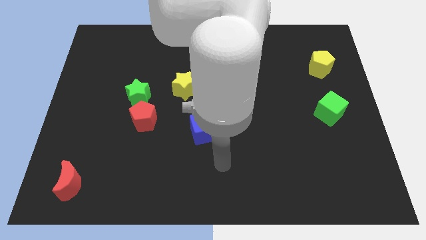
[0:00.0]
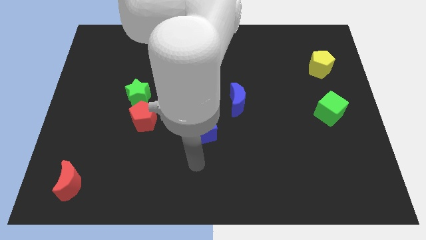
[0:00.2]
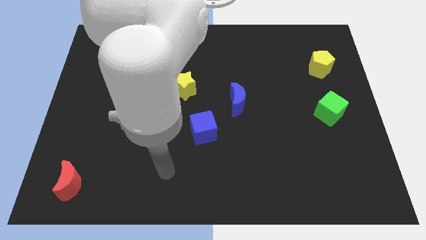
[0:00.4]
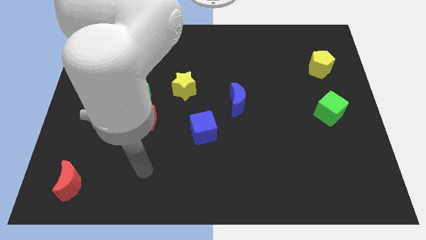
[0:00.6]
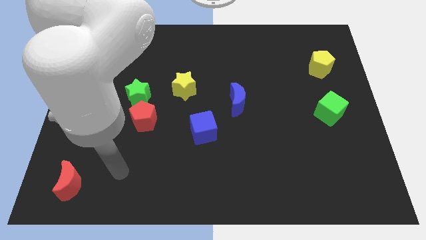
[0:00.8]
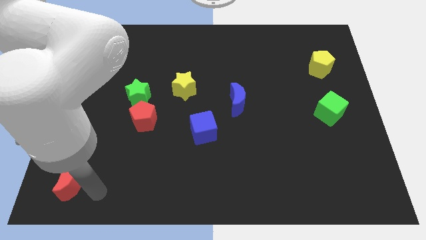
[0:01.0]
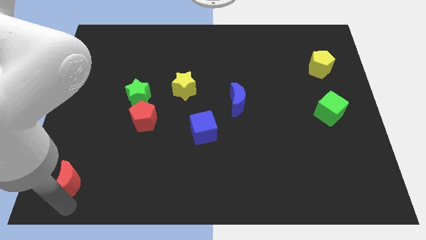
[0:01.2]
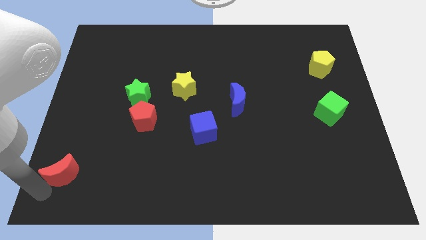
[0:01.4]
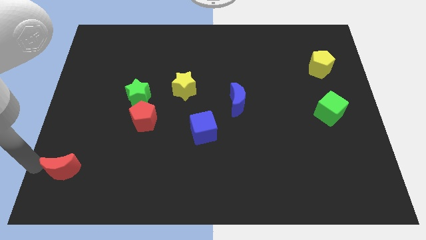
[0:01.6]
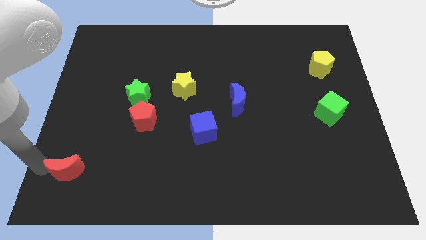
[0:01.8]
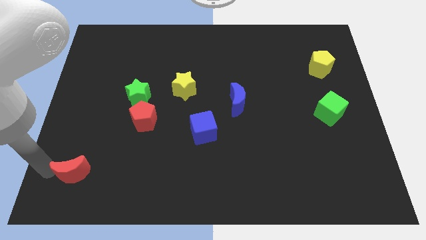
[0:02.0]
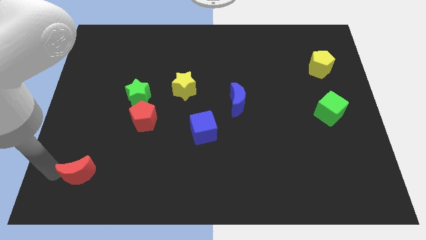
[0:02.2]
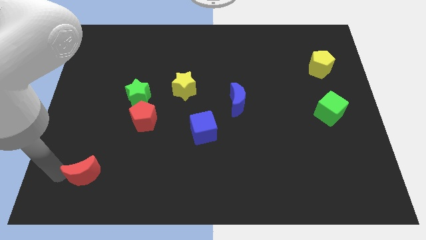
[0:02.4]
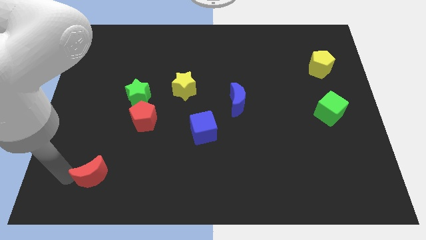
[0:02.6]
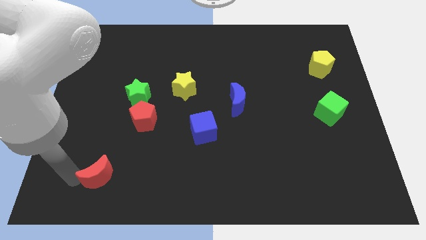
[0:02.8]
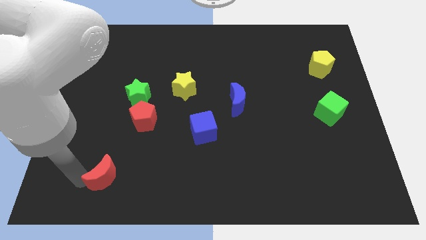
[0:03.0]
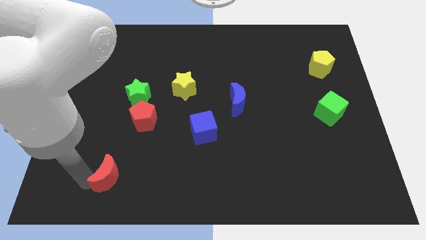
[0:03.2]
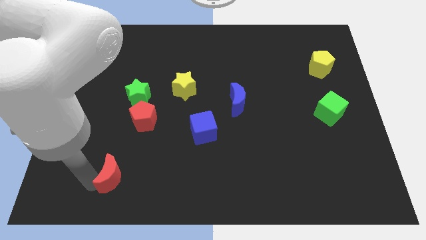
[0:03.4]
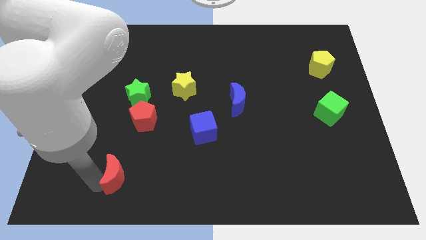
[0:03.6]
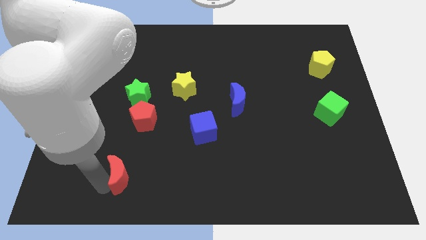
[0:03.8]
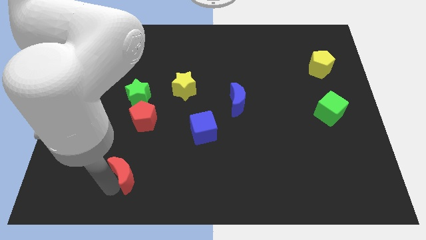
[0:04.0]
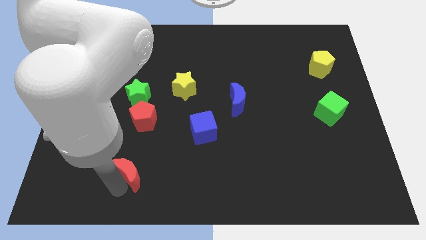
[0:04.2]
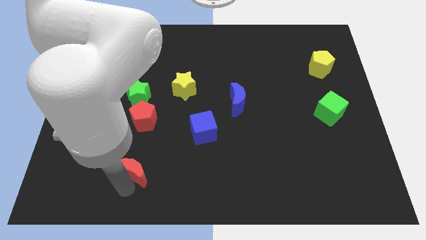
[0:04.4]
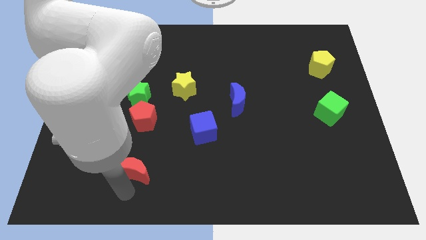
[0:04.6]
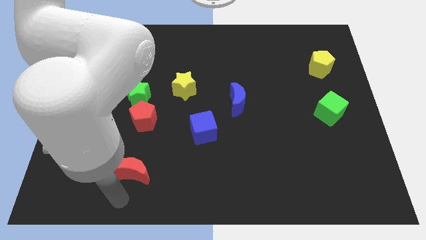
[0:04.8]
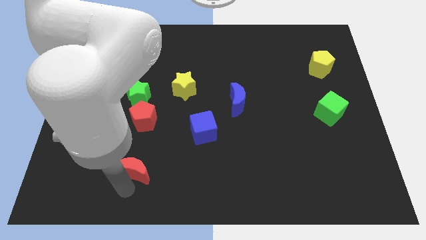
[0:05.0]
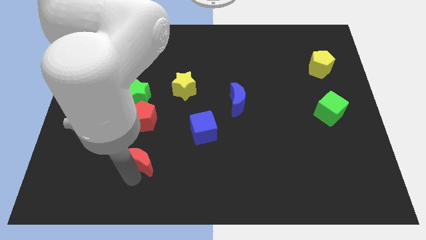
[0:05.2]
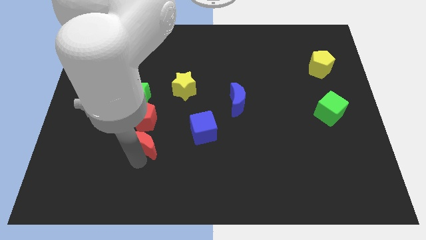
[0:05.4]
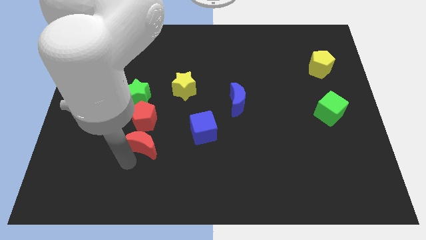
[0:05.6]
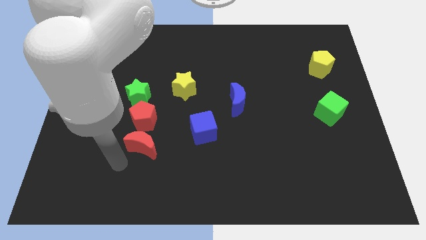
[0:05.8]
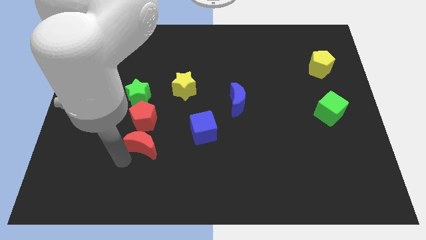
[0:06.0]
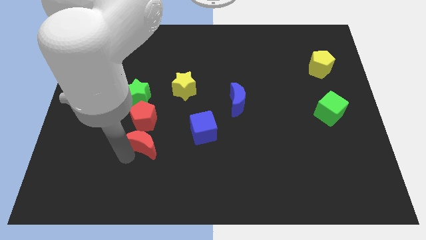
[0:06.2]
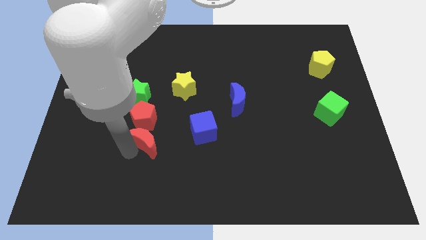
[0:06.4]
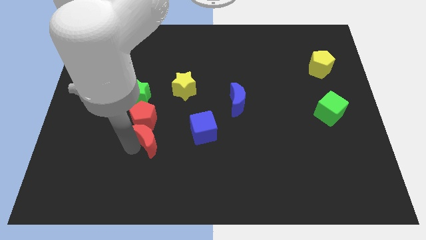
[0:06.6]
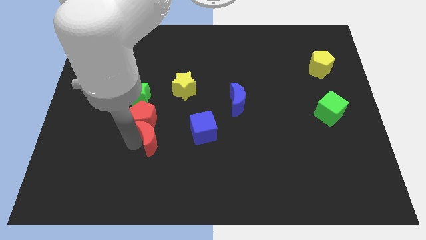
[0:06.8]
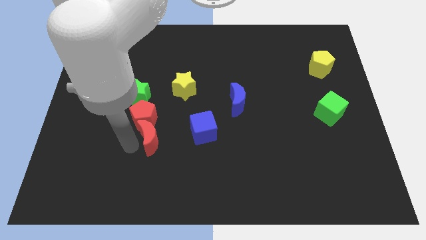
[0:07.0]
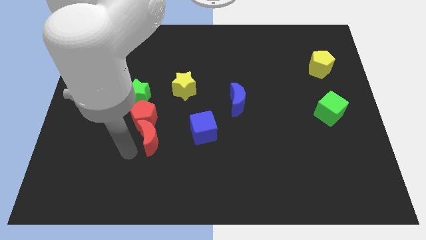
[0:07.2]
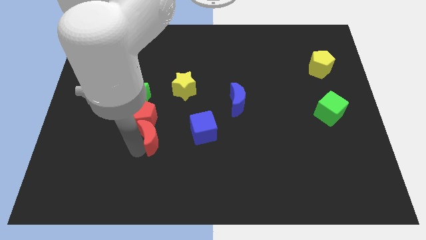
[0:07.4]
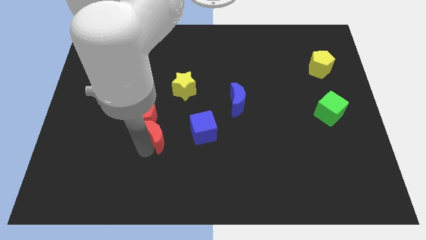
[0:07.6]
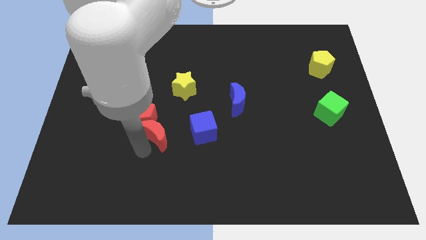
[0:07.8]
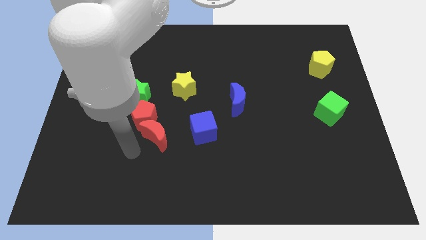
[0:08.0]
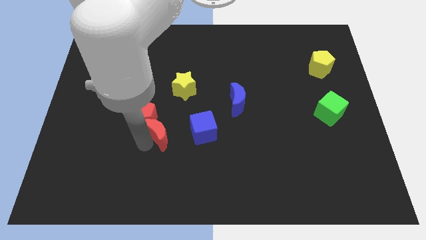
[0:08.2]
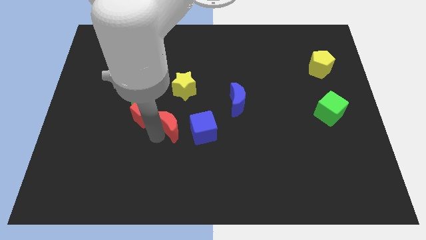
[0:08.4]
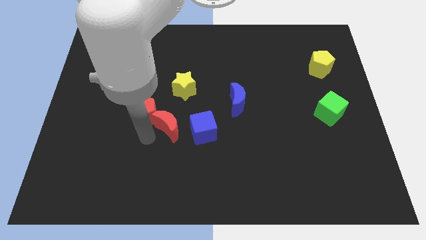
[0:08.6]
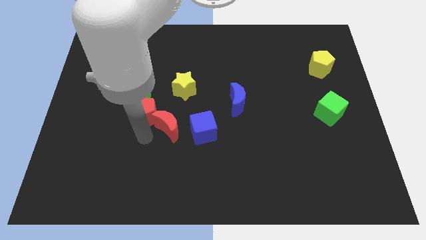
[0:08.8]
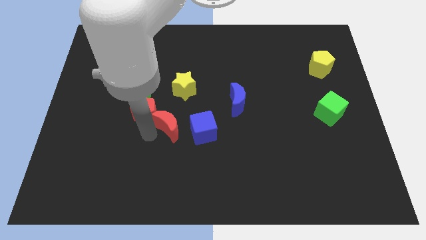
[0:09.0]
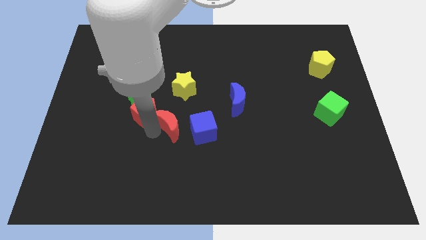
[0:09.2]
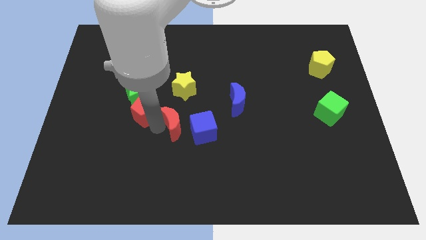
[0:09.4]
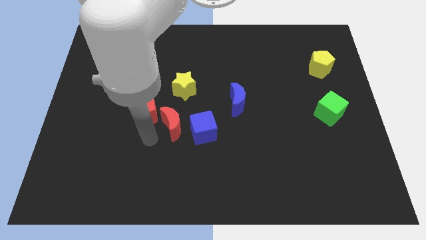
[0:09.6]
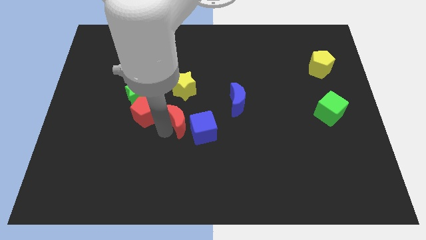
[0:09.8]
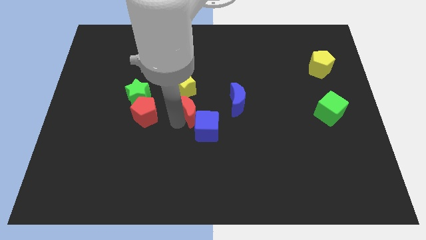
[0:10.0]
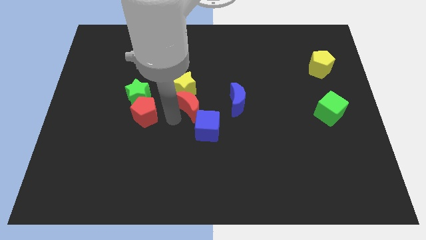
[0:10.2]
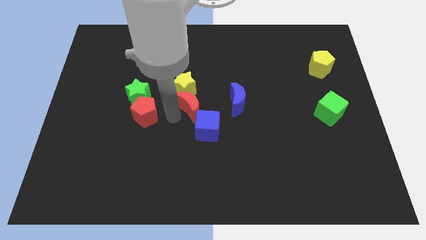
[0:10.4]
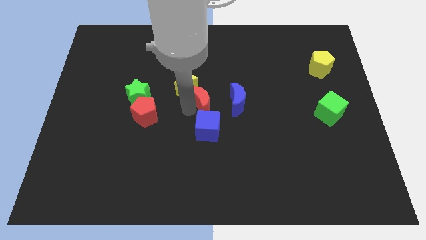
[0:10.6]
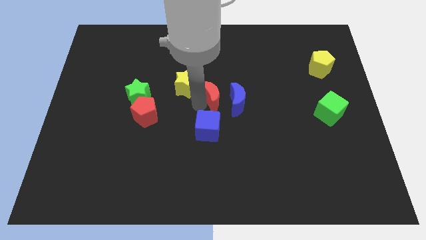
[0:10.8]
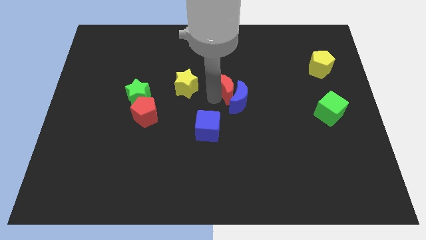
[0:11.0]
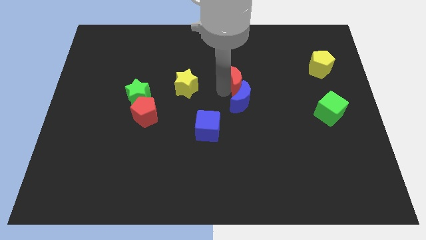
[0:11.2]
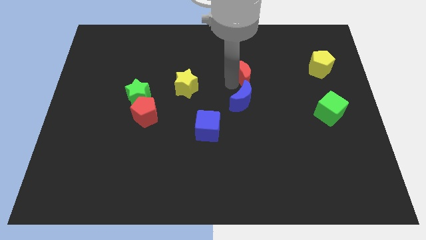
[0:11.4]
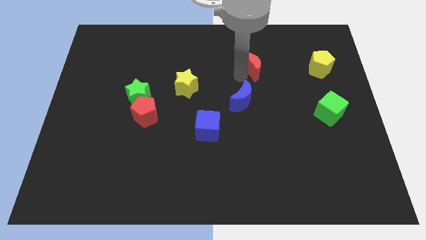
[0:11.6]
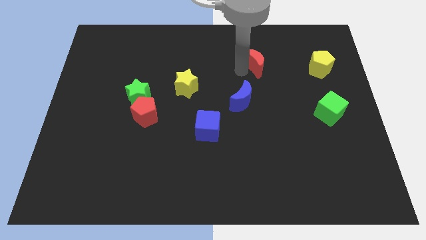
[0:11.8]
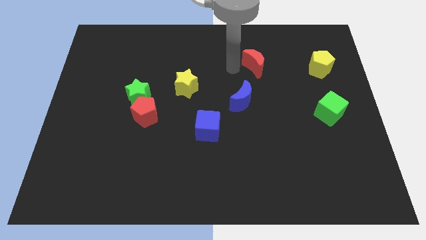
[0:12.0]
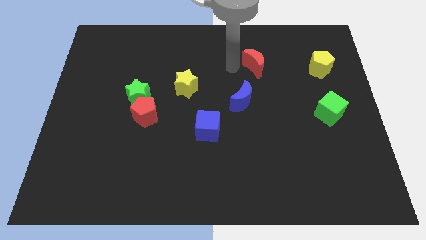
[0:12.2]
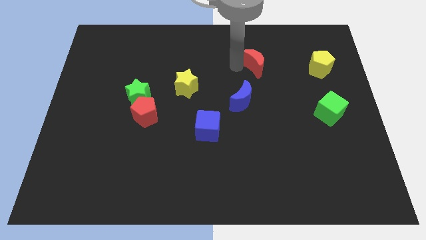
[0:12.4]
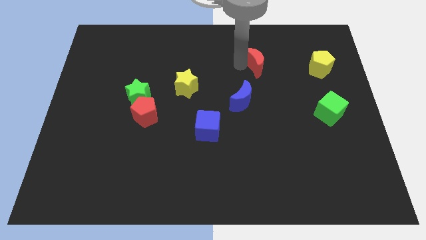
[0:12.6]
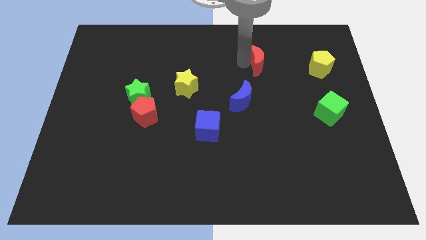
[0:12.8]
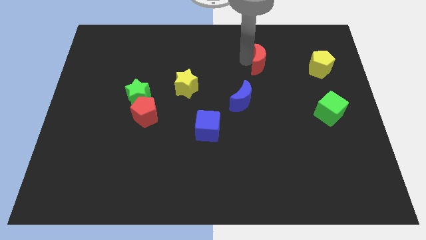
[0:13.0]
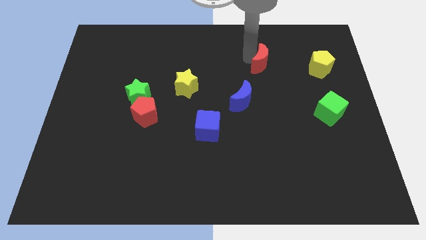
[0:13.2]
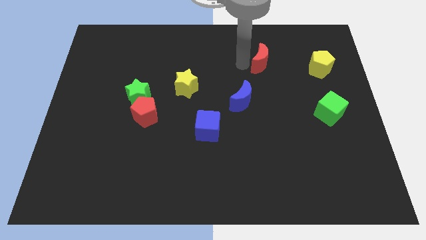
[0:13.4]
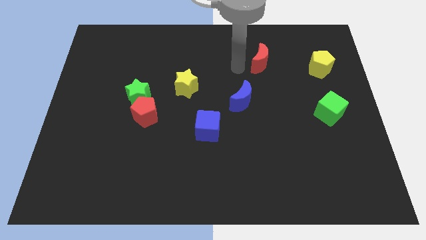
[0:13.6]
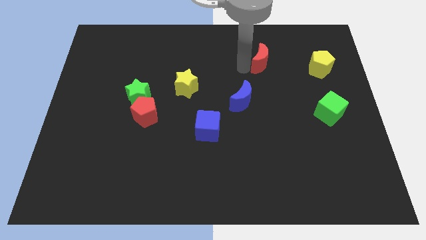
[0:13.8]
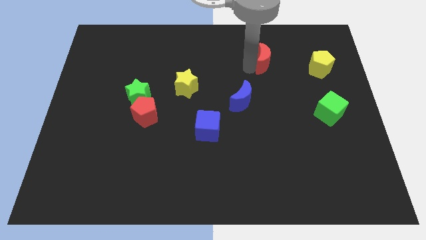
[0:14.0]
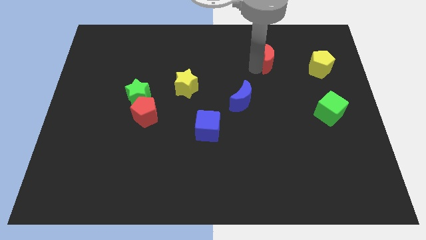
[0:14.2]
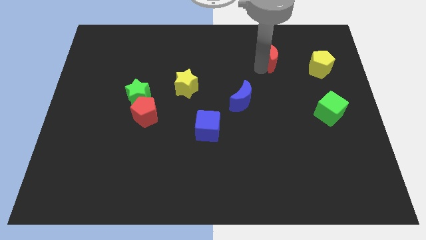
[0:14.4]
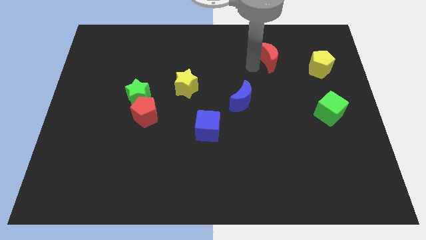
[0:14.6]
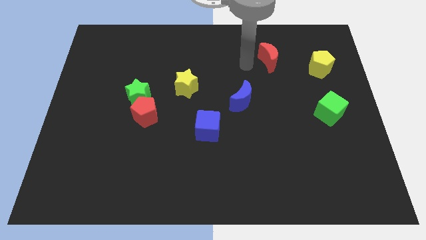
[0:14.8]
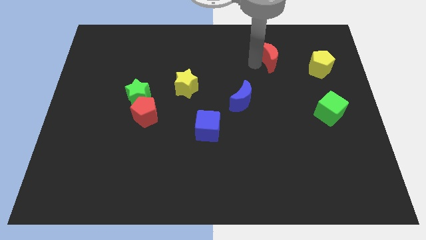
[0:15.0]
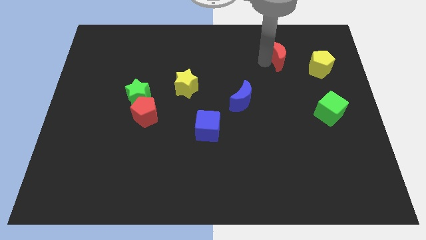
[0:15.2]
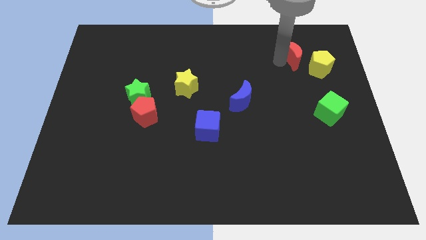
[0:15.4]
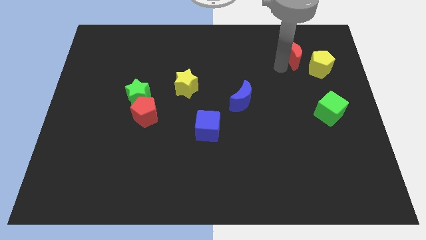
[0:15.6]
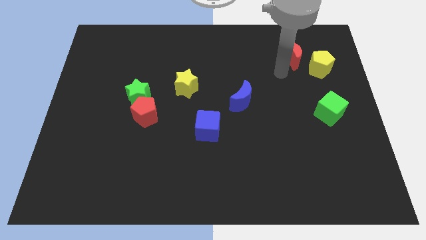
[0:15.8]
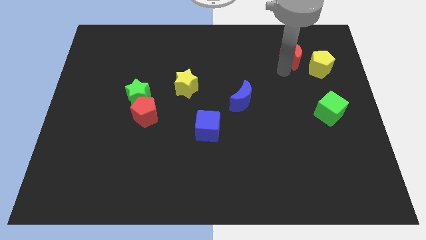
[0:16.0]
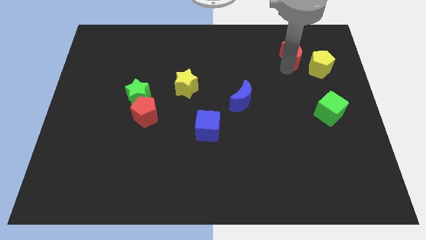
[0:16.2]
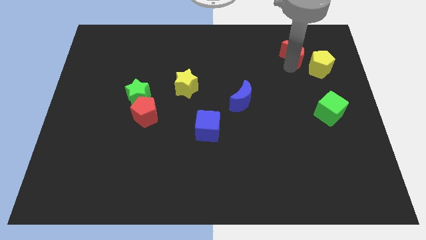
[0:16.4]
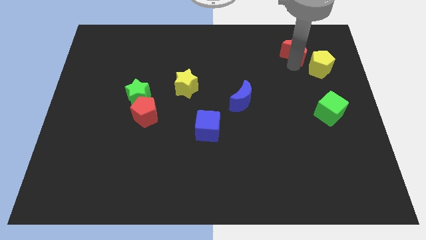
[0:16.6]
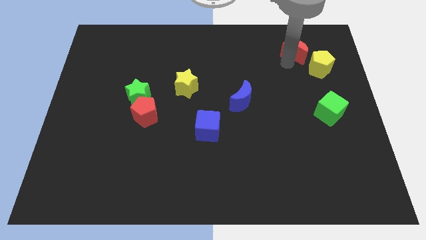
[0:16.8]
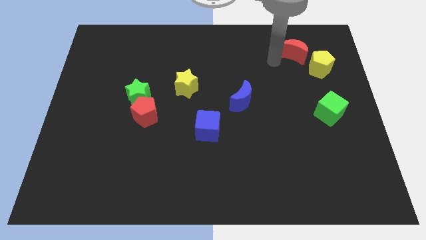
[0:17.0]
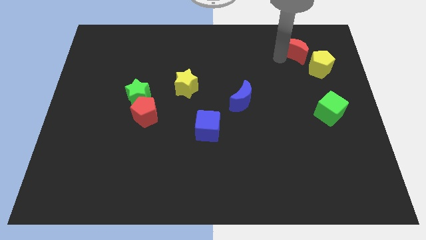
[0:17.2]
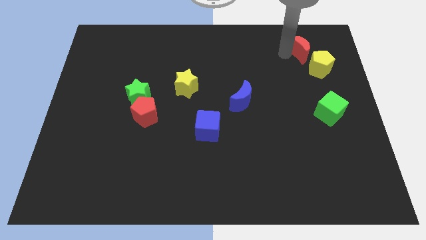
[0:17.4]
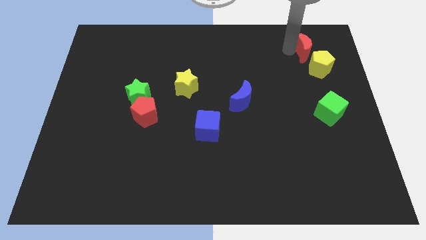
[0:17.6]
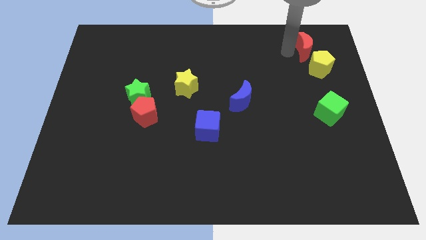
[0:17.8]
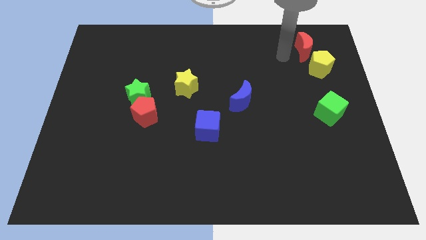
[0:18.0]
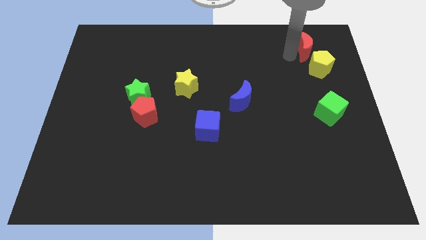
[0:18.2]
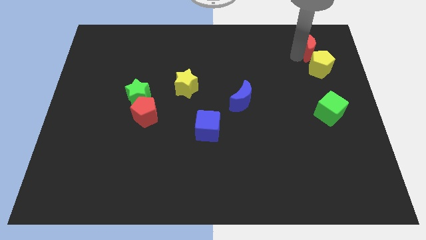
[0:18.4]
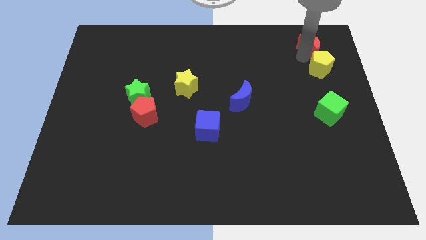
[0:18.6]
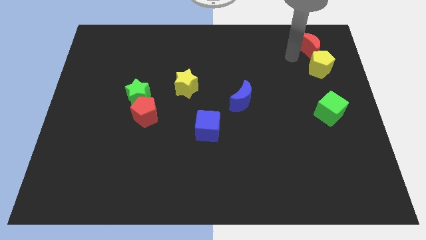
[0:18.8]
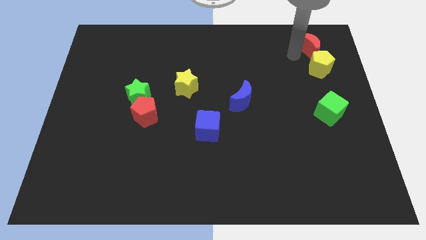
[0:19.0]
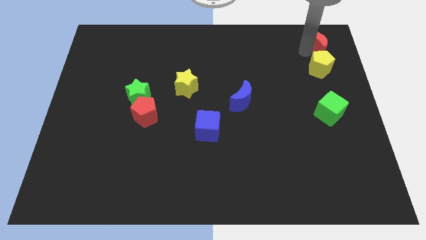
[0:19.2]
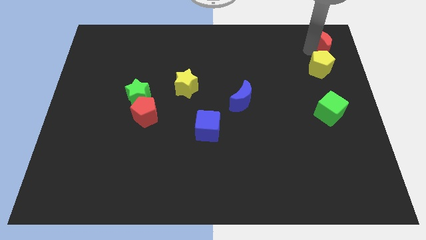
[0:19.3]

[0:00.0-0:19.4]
push the red moon to the upper right corner
